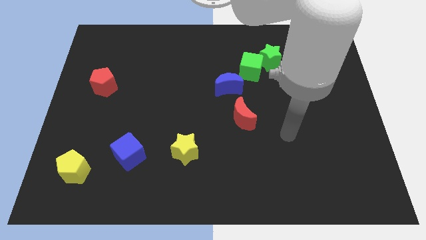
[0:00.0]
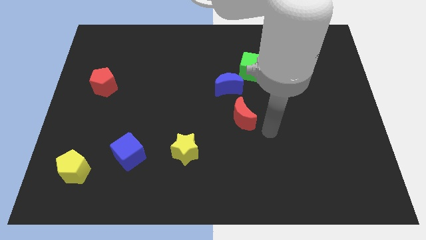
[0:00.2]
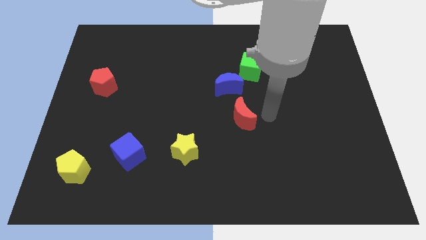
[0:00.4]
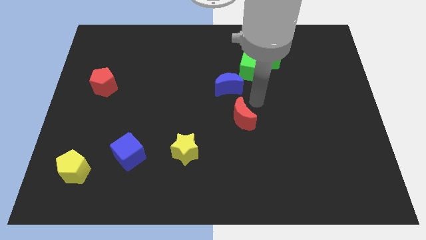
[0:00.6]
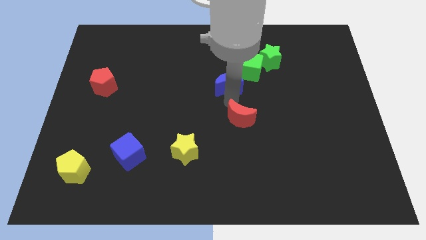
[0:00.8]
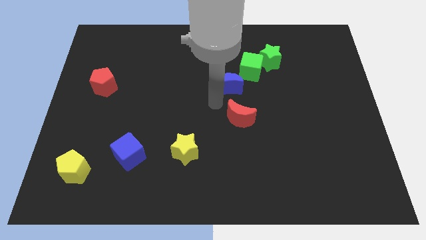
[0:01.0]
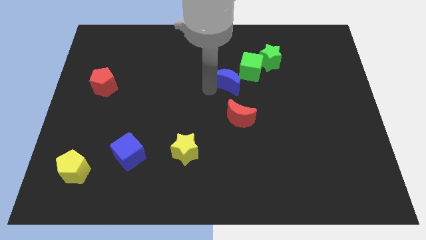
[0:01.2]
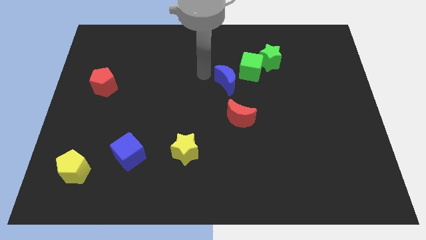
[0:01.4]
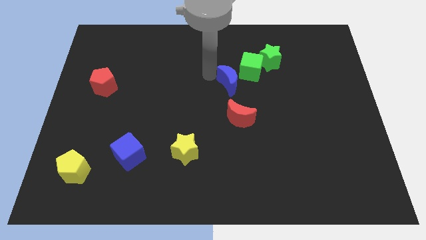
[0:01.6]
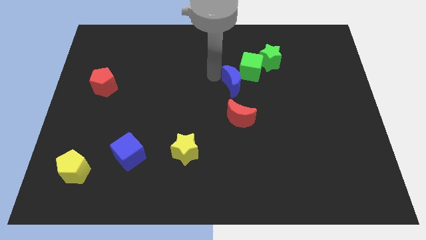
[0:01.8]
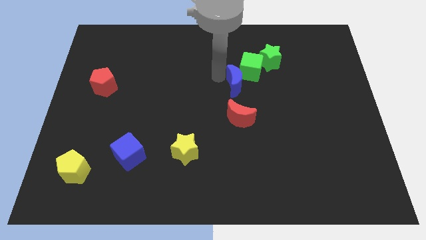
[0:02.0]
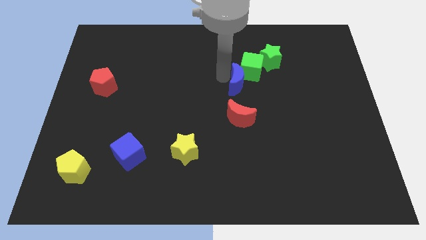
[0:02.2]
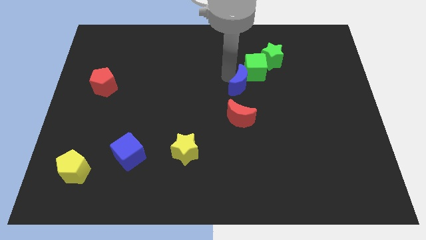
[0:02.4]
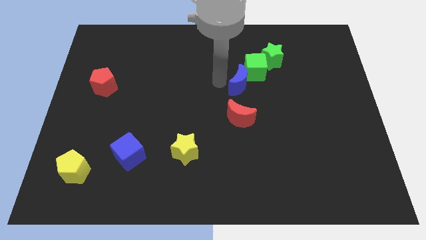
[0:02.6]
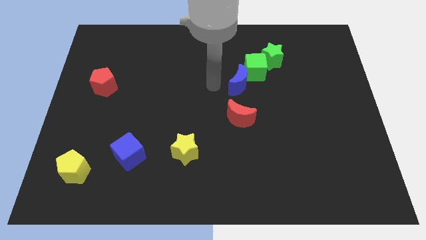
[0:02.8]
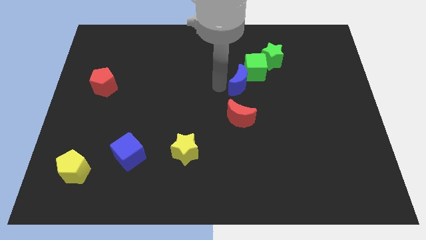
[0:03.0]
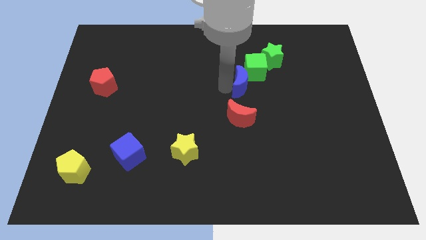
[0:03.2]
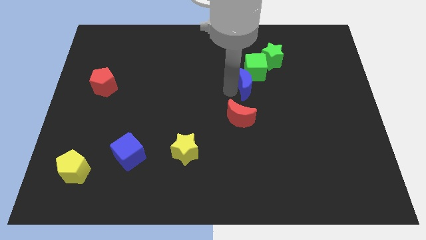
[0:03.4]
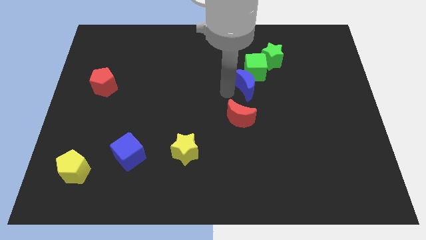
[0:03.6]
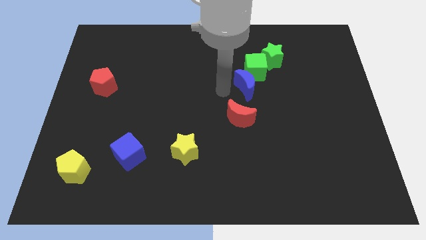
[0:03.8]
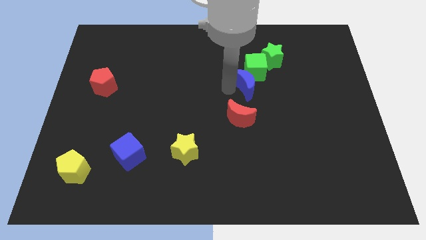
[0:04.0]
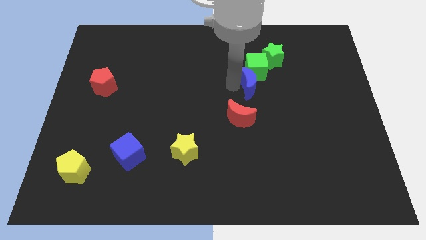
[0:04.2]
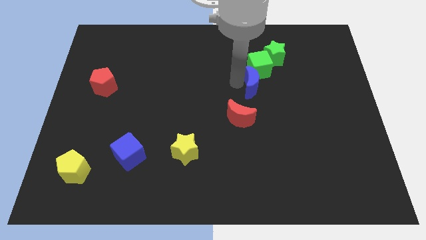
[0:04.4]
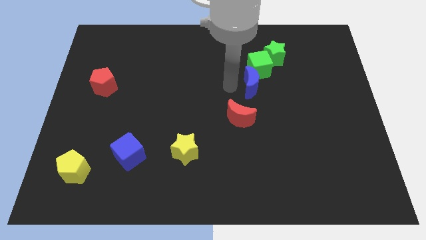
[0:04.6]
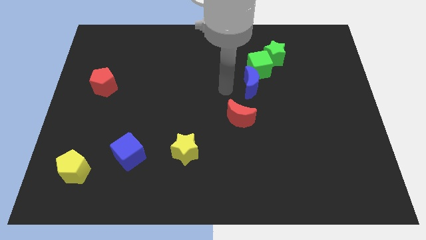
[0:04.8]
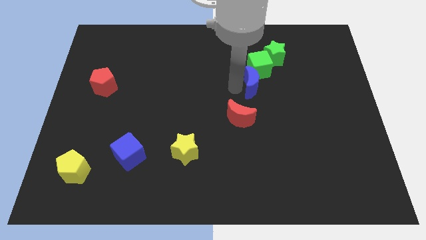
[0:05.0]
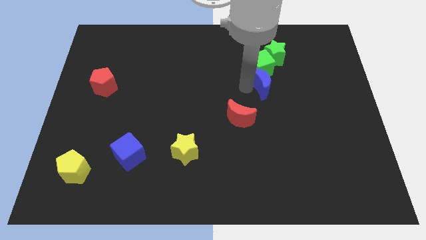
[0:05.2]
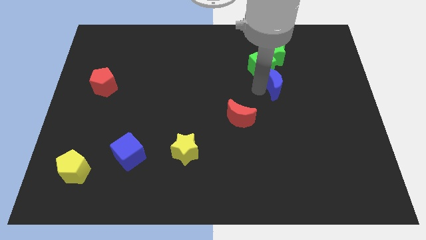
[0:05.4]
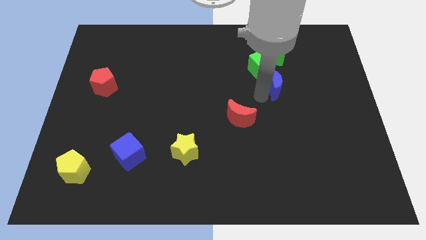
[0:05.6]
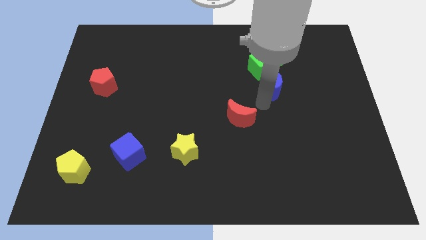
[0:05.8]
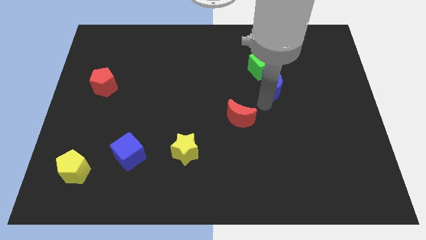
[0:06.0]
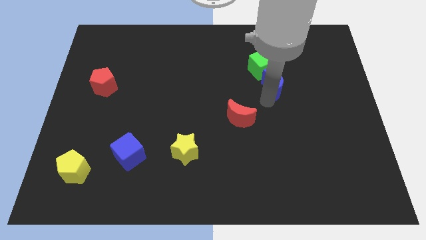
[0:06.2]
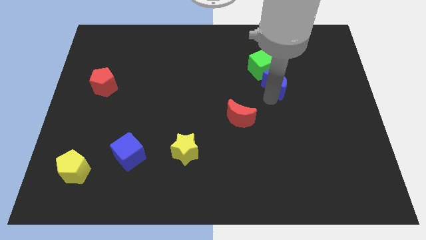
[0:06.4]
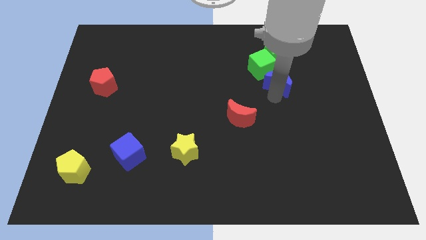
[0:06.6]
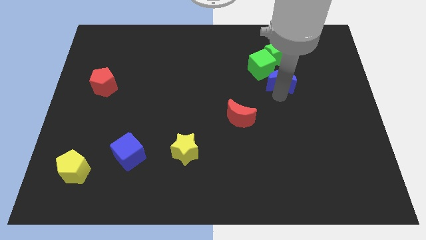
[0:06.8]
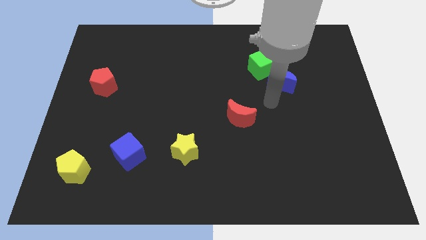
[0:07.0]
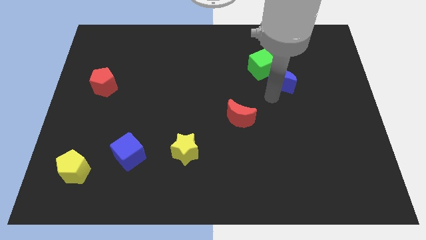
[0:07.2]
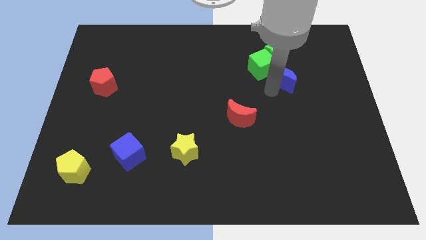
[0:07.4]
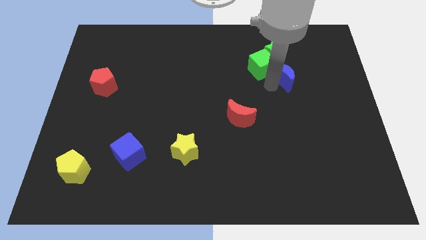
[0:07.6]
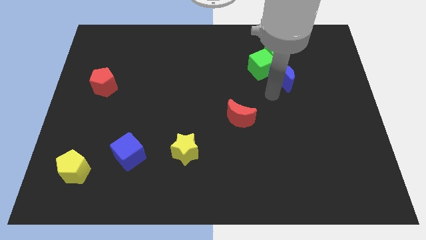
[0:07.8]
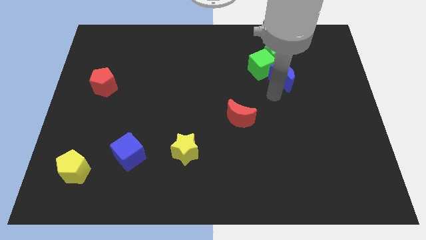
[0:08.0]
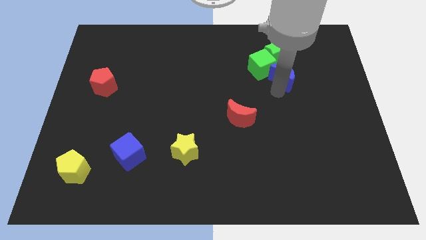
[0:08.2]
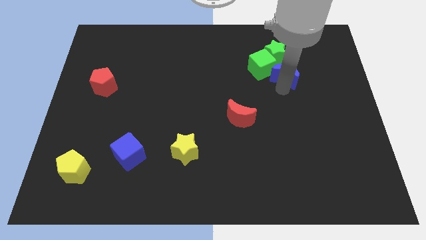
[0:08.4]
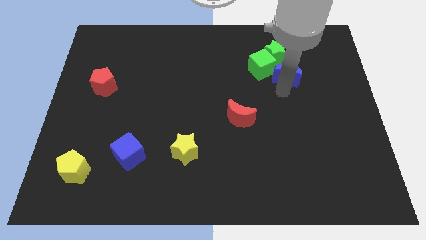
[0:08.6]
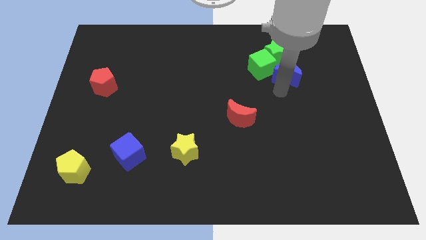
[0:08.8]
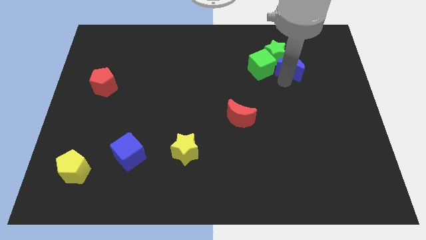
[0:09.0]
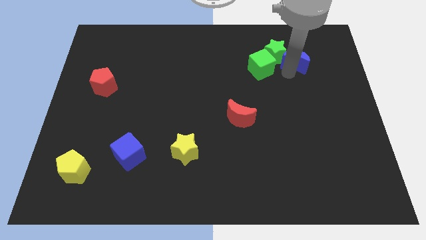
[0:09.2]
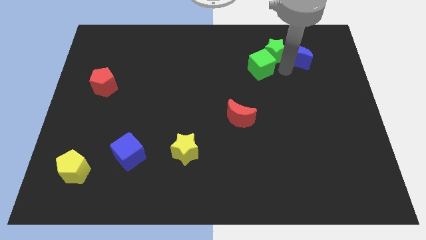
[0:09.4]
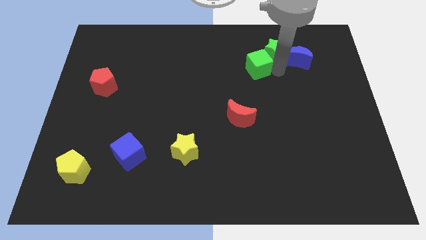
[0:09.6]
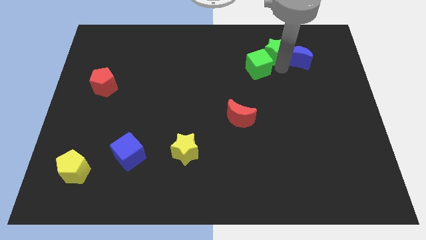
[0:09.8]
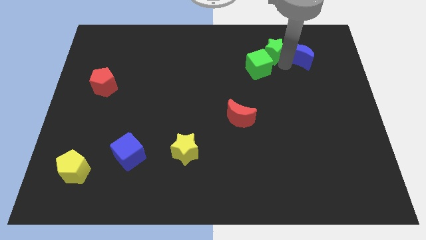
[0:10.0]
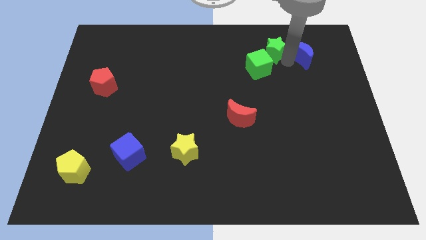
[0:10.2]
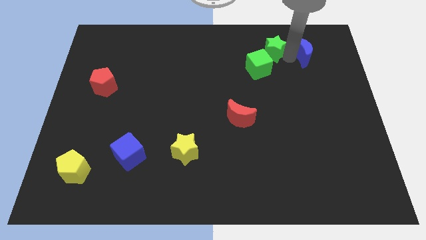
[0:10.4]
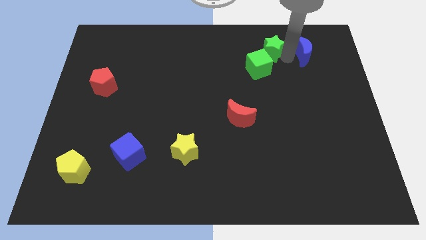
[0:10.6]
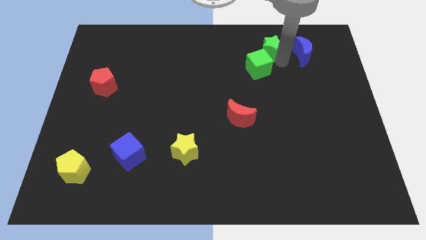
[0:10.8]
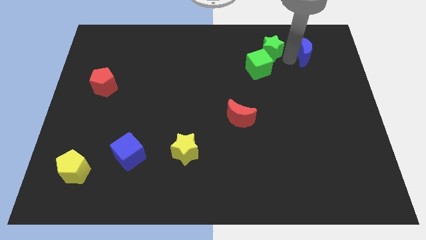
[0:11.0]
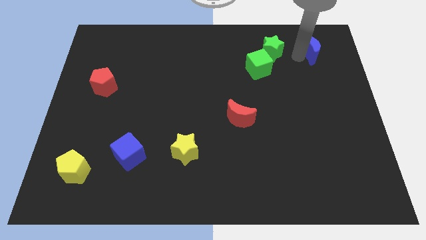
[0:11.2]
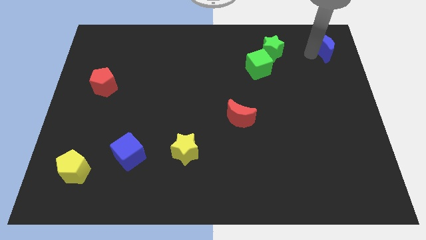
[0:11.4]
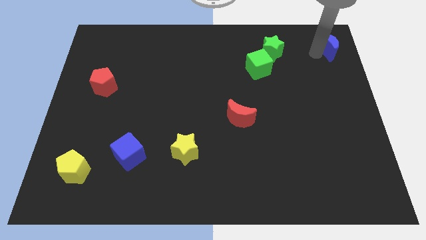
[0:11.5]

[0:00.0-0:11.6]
put the blue moon to the top right of the board

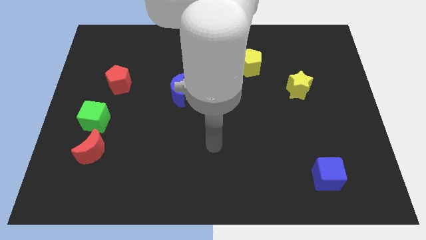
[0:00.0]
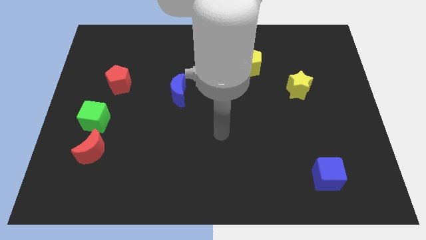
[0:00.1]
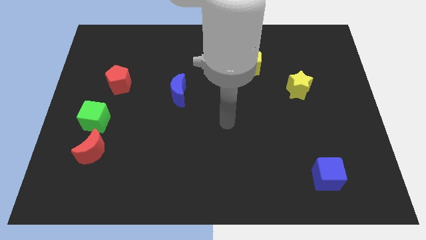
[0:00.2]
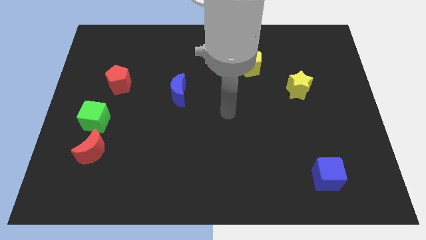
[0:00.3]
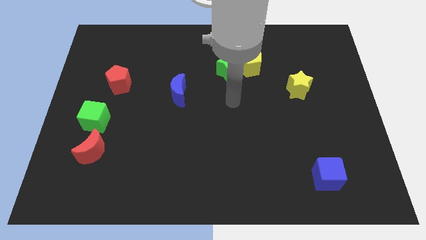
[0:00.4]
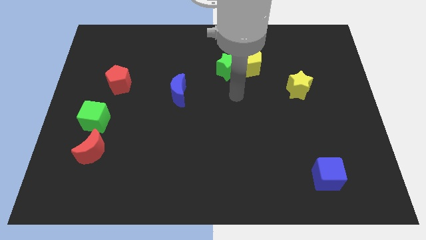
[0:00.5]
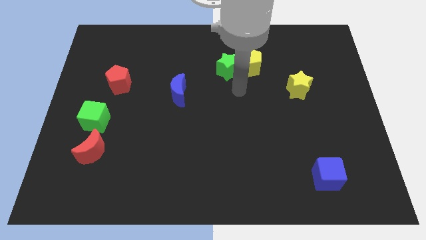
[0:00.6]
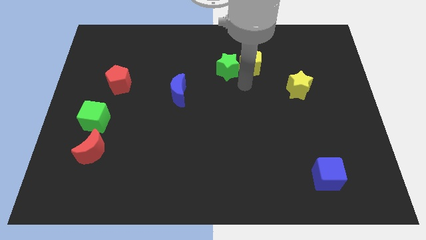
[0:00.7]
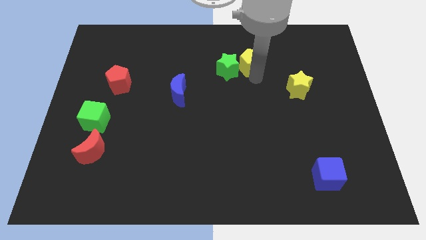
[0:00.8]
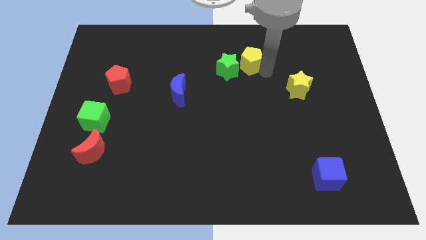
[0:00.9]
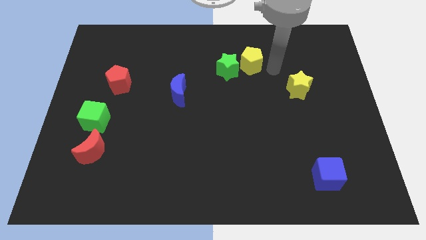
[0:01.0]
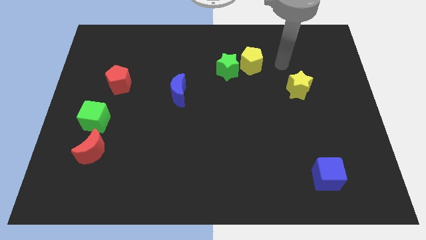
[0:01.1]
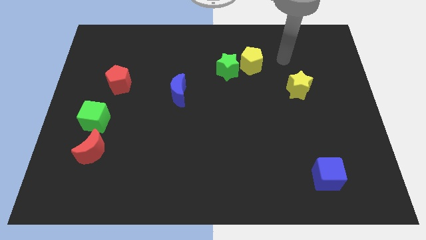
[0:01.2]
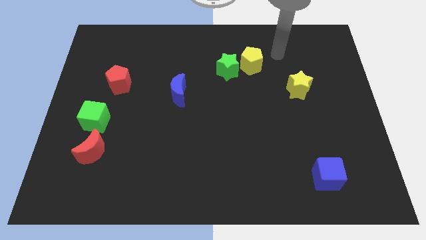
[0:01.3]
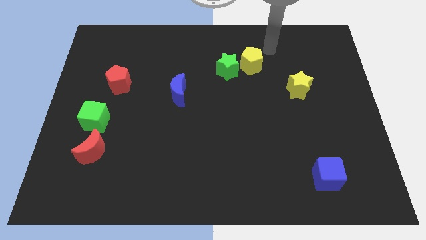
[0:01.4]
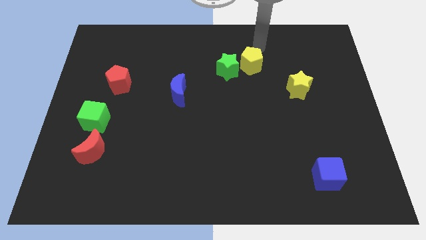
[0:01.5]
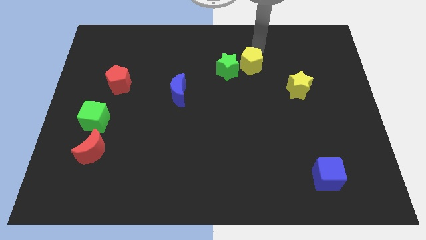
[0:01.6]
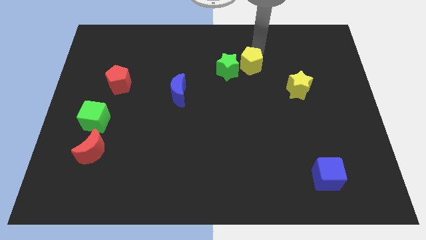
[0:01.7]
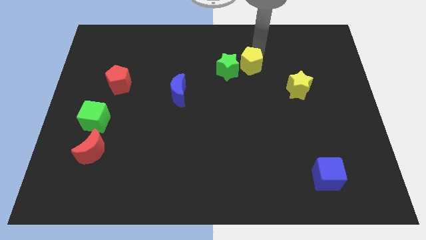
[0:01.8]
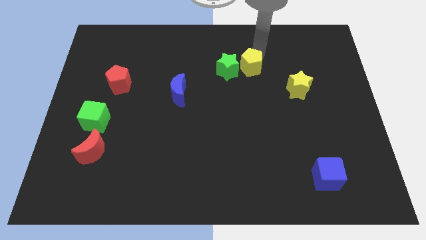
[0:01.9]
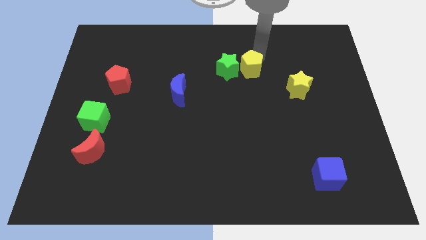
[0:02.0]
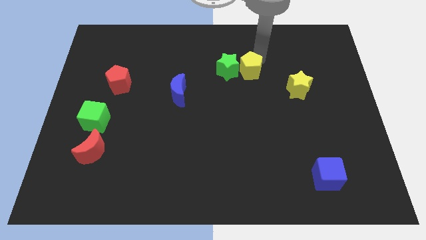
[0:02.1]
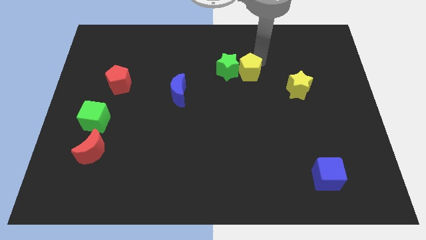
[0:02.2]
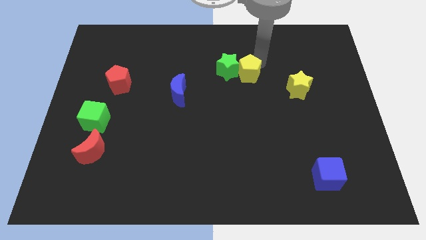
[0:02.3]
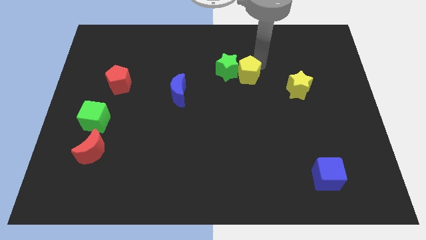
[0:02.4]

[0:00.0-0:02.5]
push the yellow pentagon to the middle
